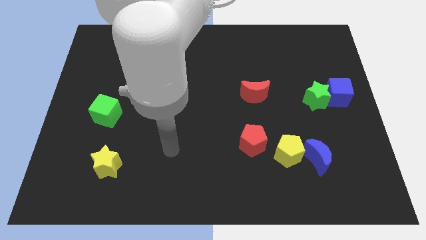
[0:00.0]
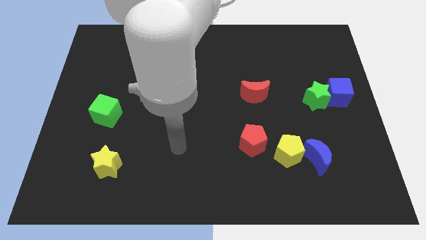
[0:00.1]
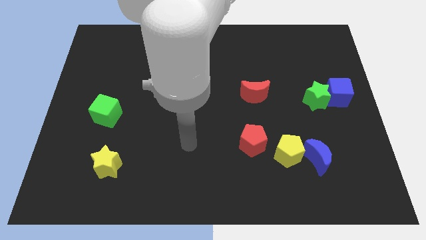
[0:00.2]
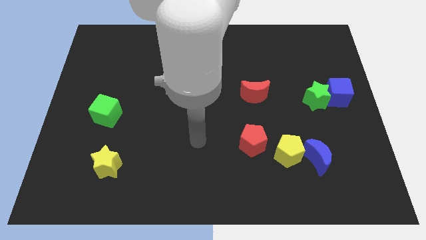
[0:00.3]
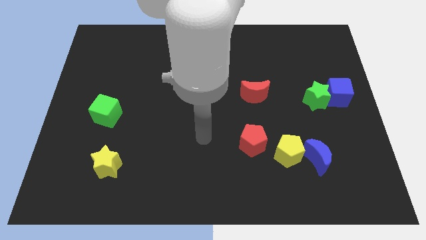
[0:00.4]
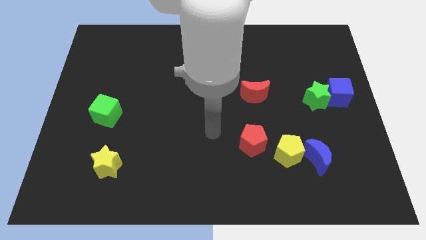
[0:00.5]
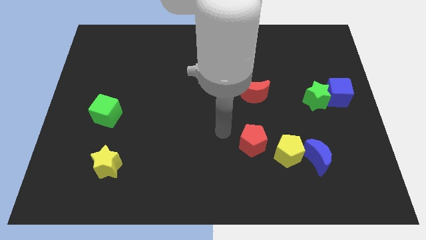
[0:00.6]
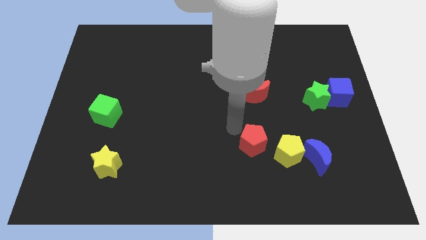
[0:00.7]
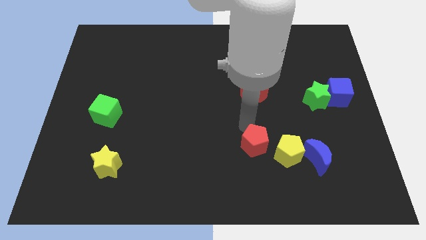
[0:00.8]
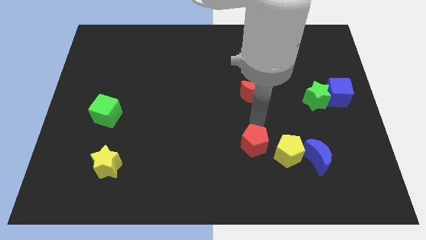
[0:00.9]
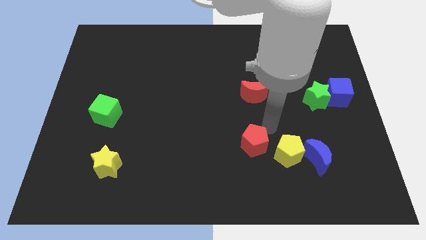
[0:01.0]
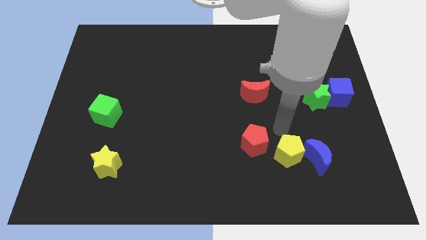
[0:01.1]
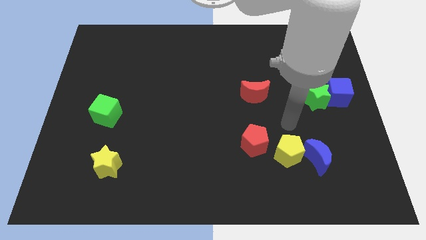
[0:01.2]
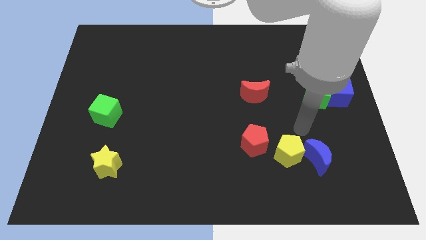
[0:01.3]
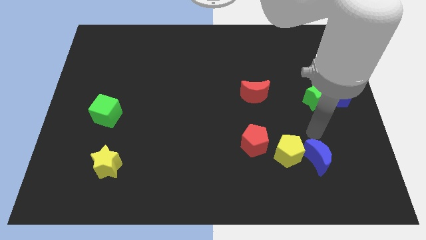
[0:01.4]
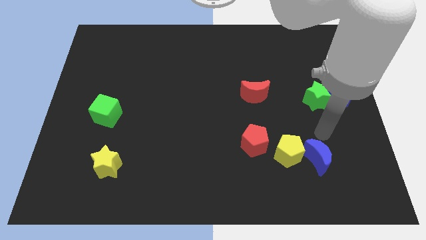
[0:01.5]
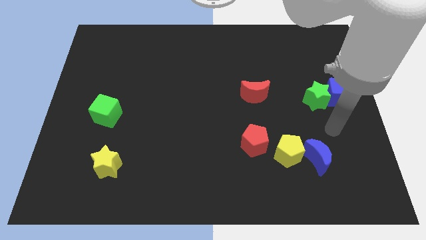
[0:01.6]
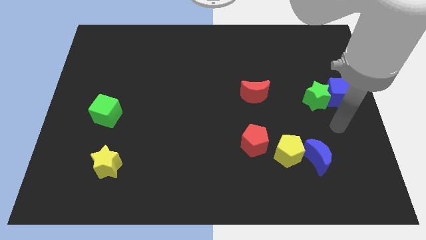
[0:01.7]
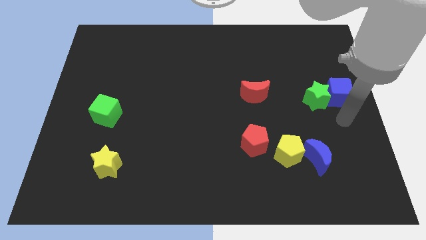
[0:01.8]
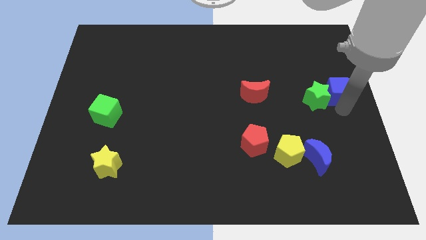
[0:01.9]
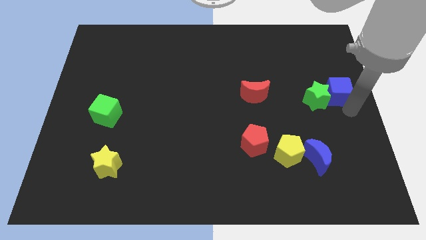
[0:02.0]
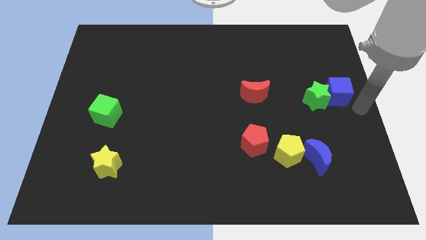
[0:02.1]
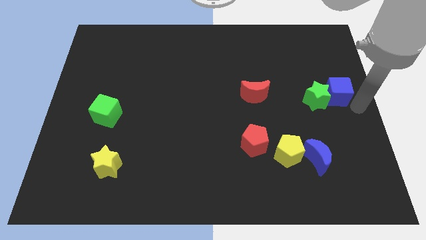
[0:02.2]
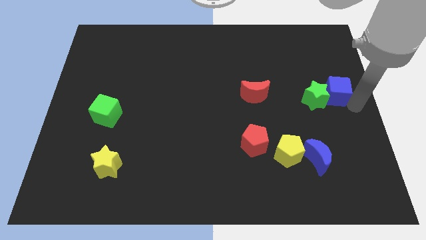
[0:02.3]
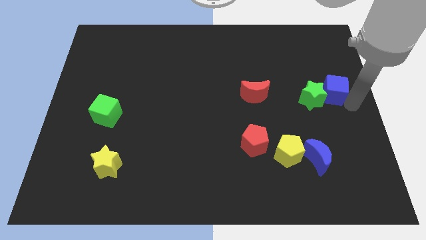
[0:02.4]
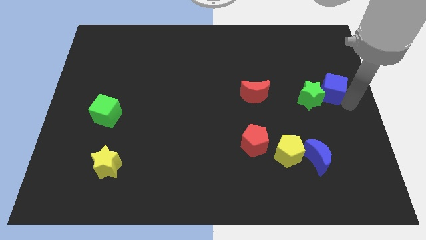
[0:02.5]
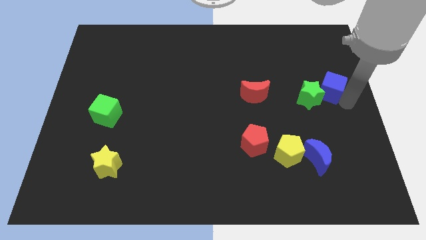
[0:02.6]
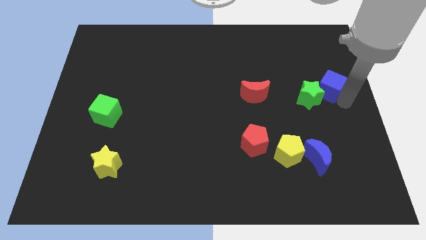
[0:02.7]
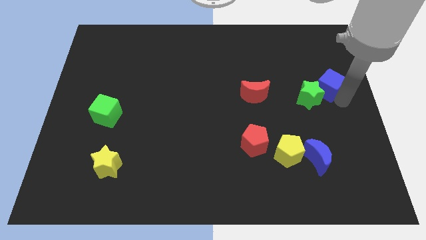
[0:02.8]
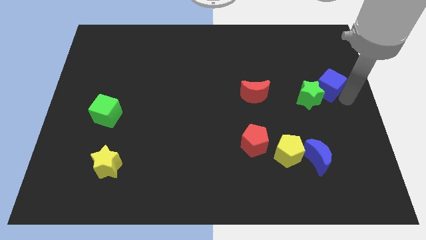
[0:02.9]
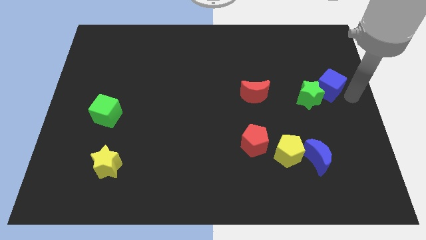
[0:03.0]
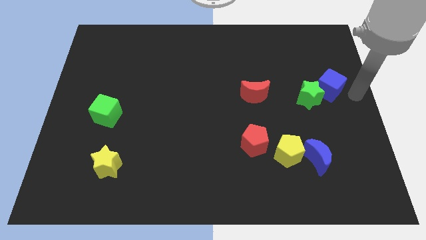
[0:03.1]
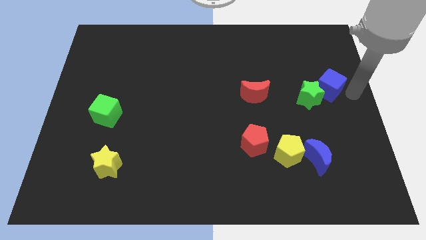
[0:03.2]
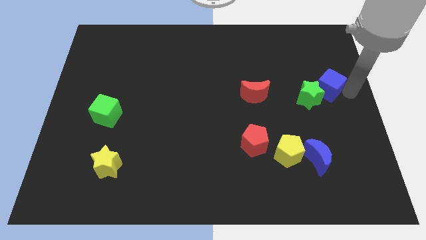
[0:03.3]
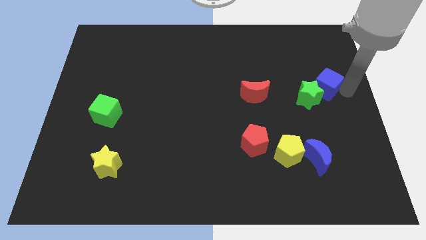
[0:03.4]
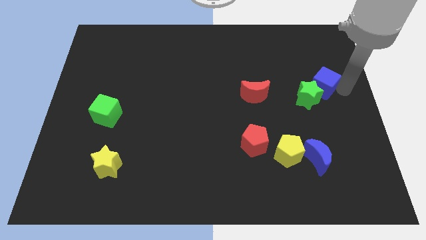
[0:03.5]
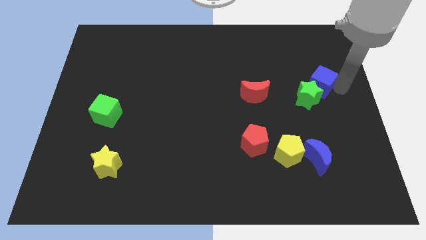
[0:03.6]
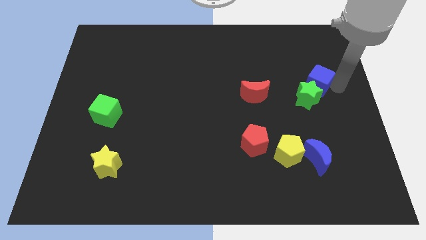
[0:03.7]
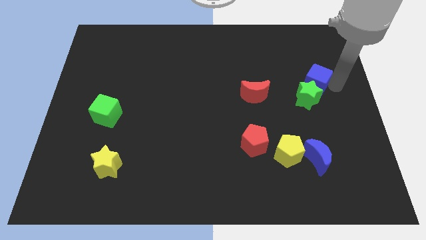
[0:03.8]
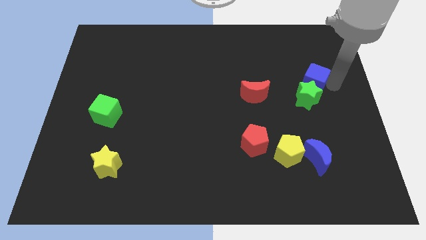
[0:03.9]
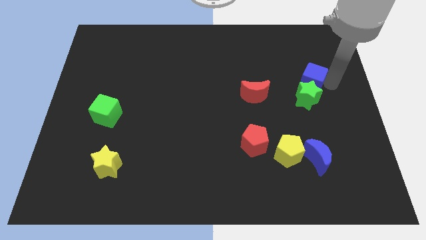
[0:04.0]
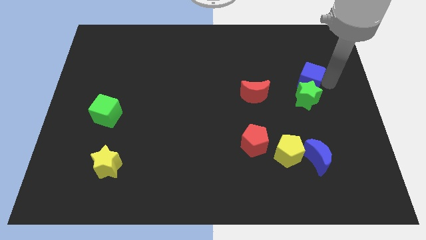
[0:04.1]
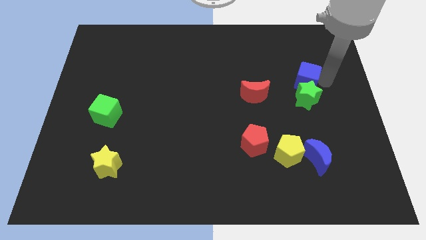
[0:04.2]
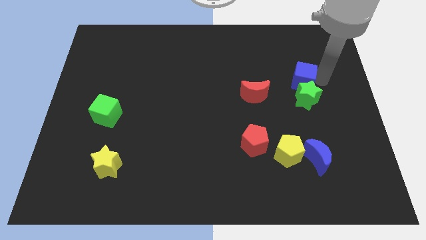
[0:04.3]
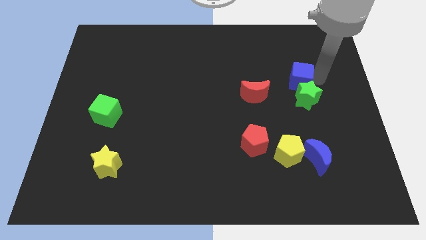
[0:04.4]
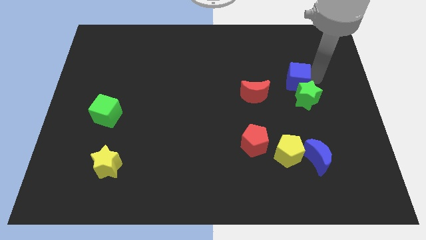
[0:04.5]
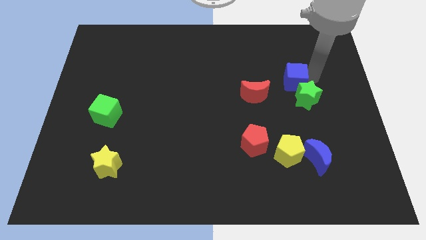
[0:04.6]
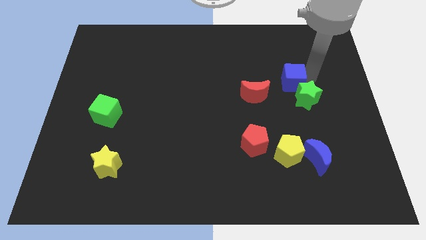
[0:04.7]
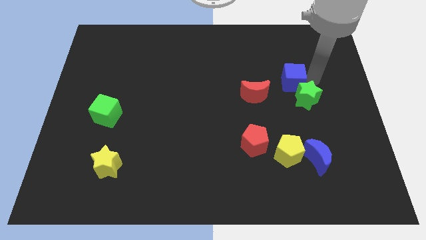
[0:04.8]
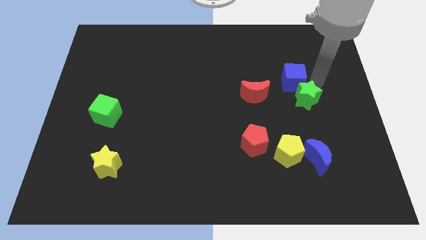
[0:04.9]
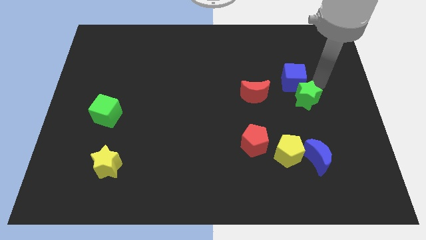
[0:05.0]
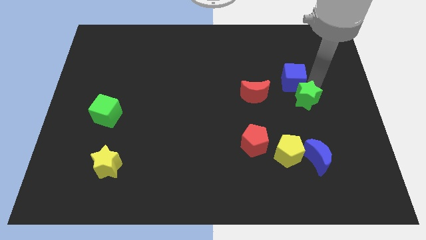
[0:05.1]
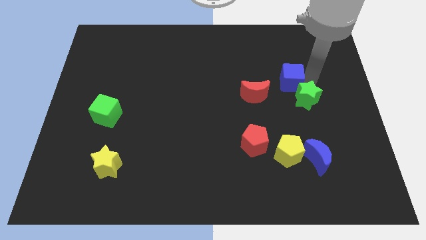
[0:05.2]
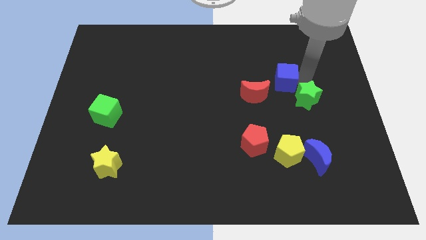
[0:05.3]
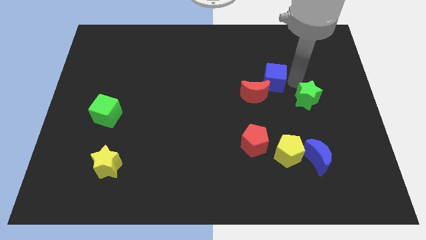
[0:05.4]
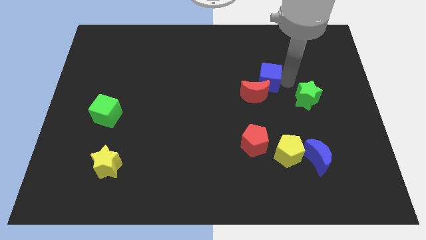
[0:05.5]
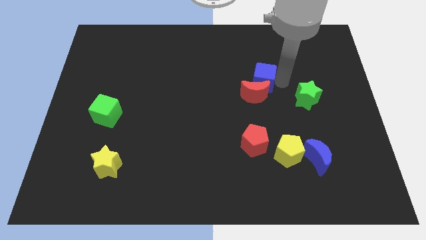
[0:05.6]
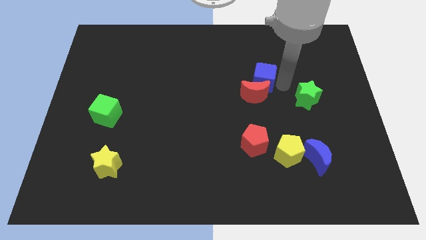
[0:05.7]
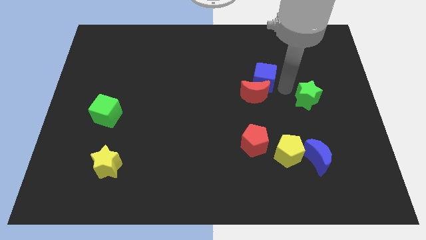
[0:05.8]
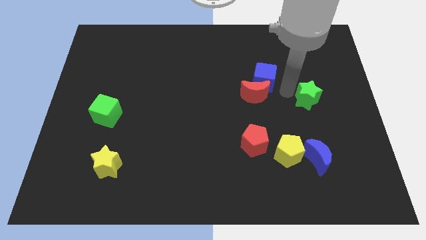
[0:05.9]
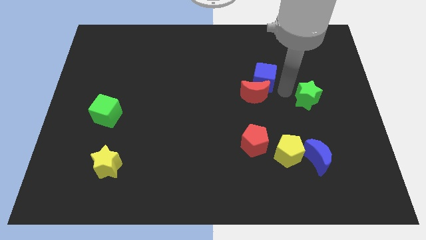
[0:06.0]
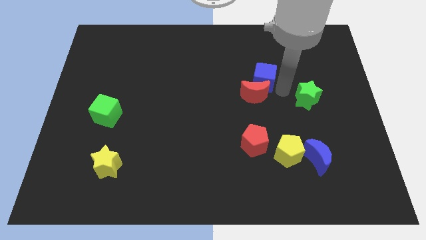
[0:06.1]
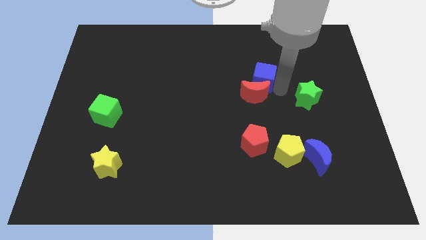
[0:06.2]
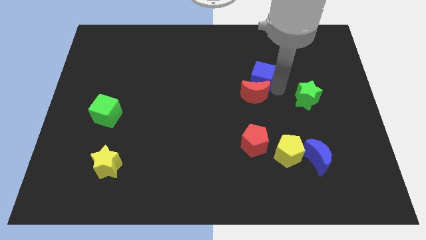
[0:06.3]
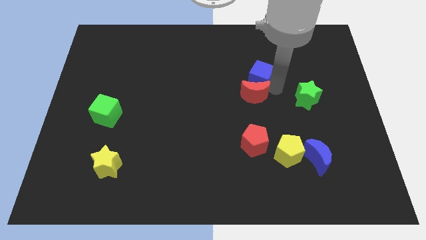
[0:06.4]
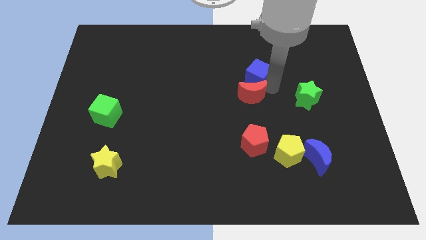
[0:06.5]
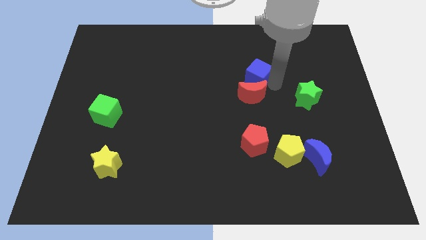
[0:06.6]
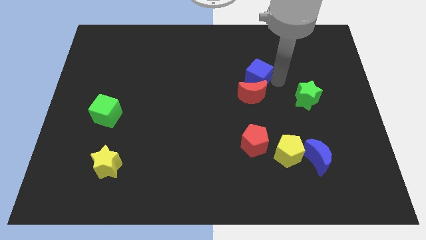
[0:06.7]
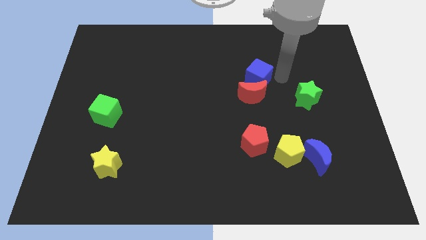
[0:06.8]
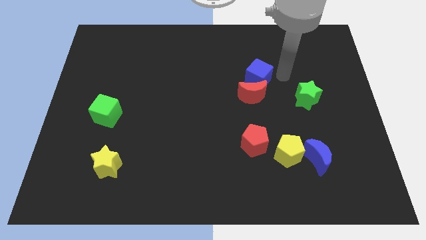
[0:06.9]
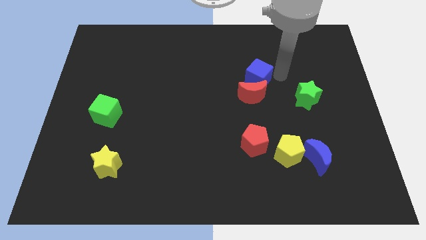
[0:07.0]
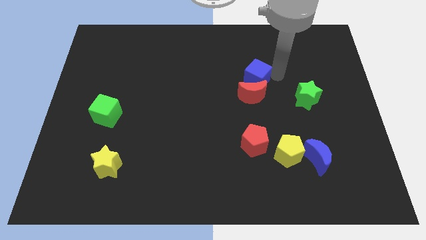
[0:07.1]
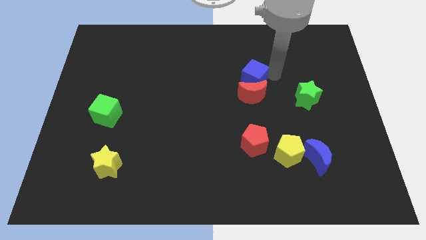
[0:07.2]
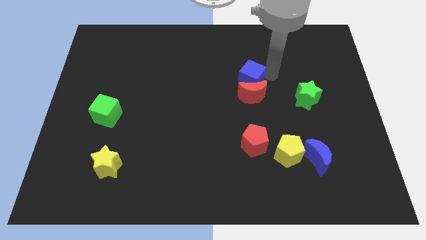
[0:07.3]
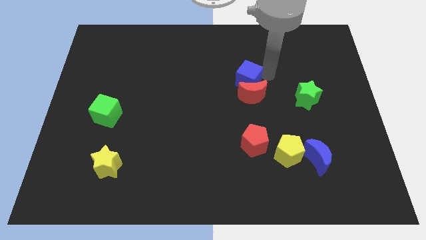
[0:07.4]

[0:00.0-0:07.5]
slide the blue cube to the left
